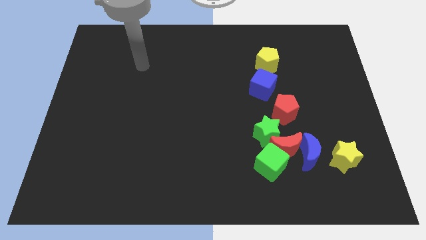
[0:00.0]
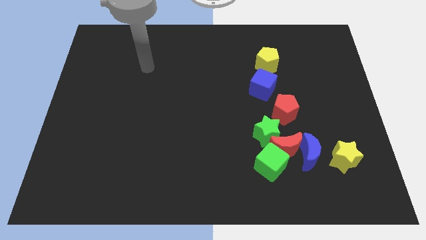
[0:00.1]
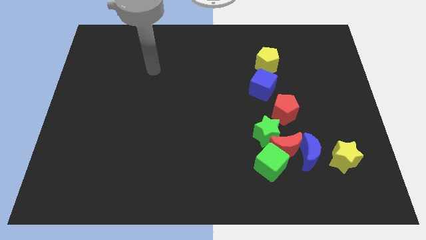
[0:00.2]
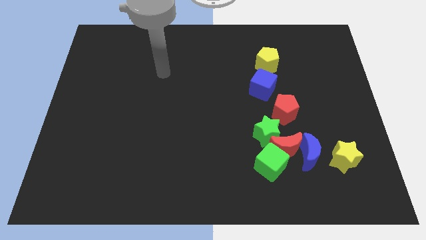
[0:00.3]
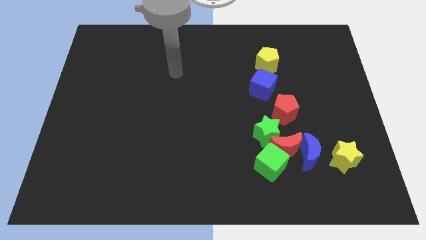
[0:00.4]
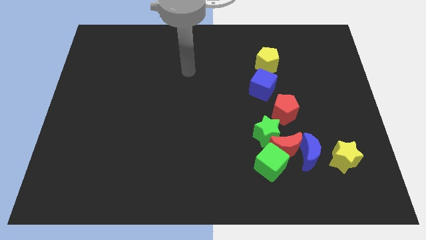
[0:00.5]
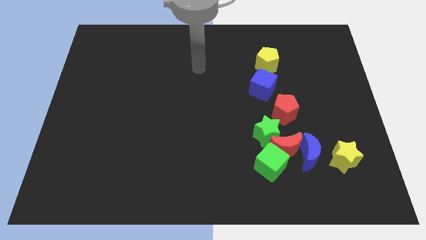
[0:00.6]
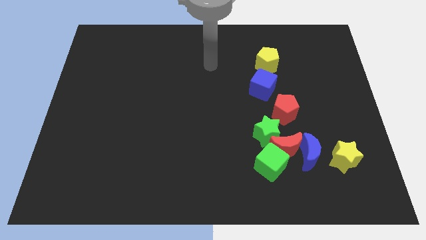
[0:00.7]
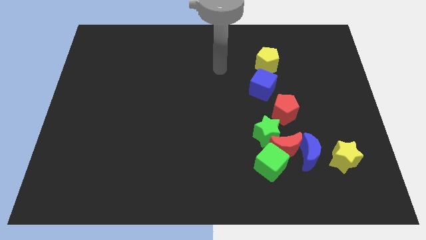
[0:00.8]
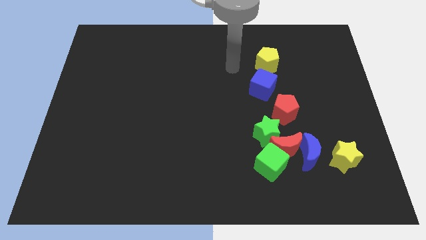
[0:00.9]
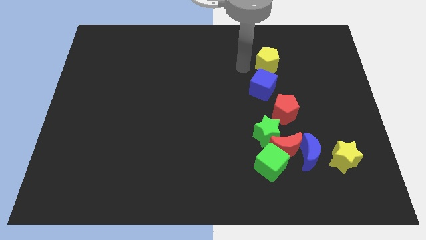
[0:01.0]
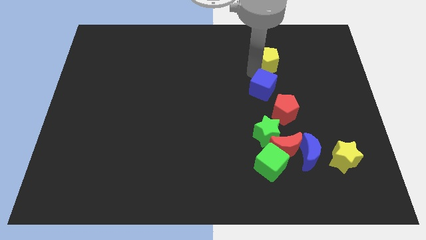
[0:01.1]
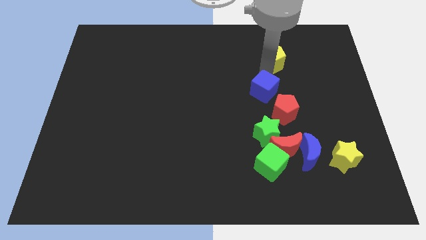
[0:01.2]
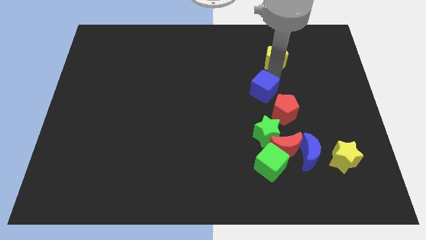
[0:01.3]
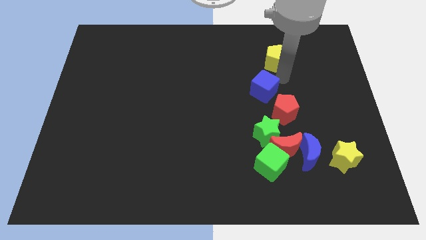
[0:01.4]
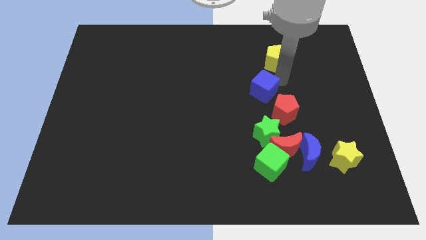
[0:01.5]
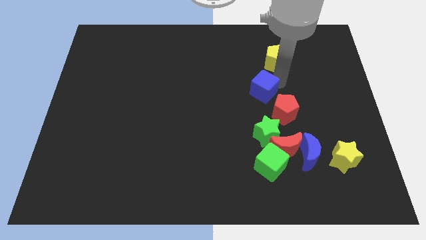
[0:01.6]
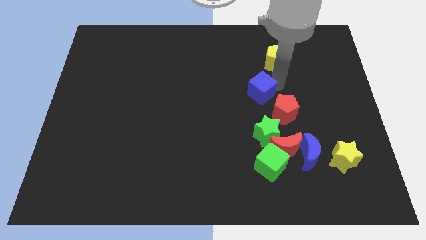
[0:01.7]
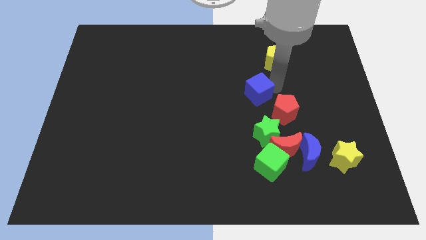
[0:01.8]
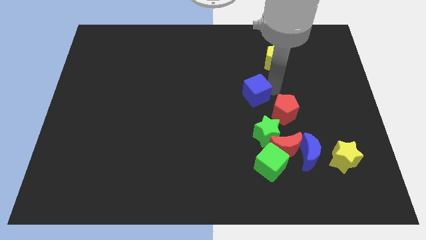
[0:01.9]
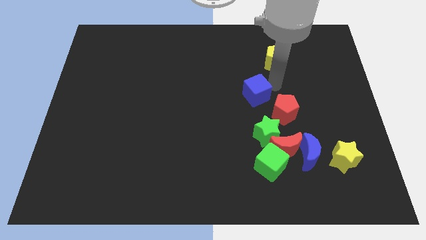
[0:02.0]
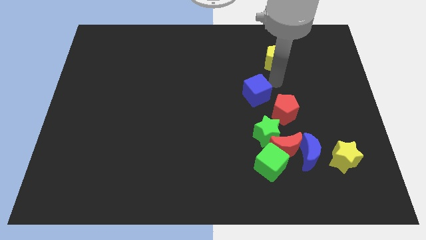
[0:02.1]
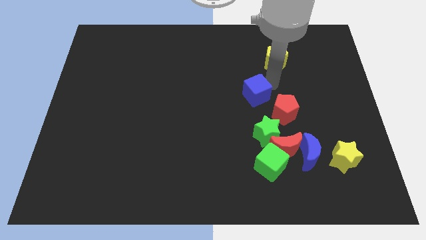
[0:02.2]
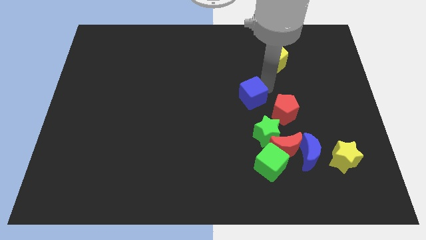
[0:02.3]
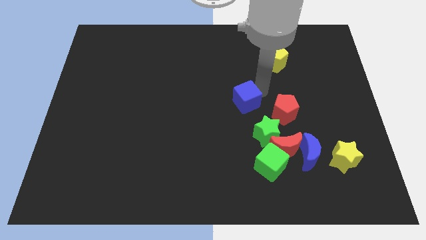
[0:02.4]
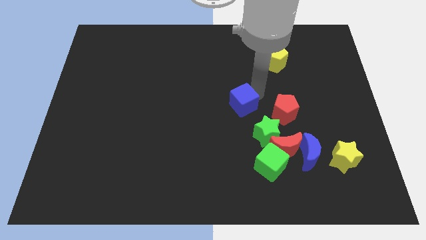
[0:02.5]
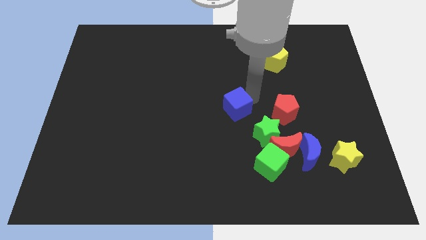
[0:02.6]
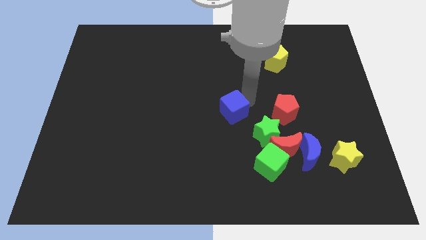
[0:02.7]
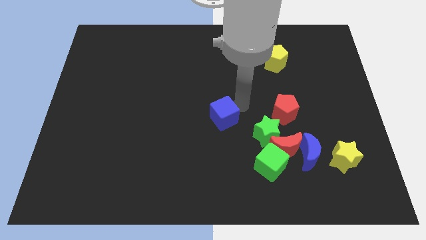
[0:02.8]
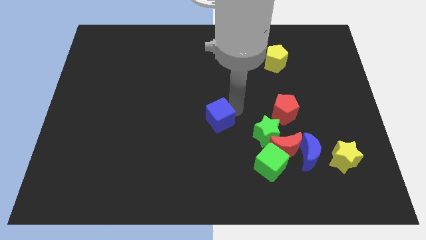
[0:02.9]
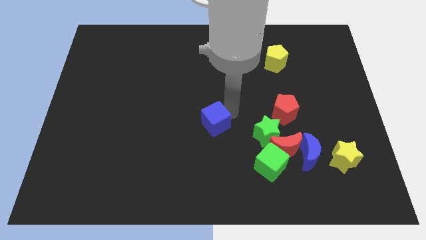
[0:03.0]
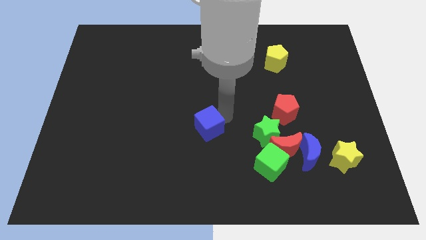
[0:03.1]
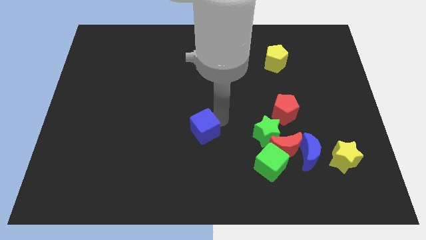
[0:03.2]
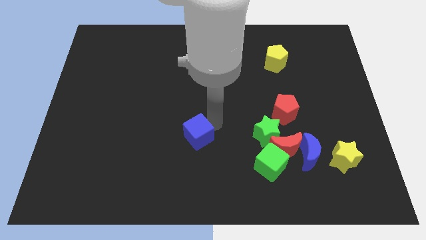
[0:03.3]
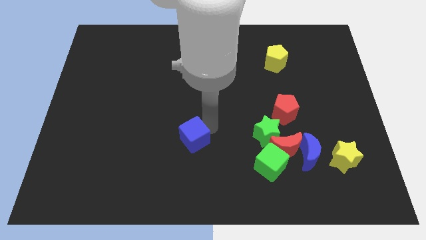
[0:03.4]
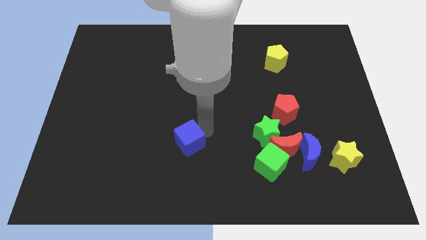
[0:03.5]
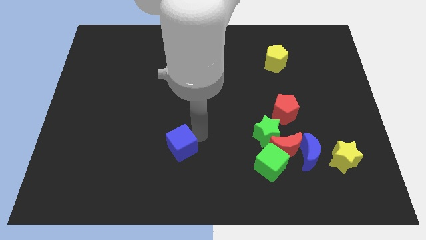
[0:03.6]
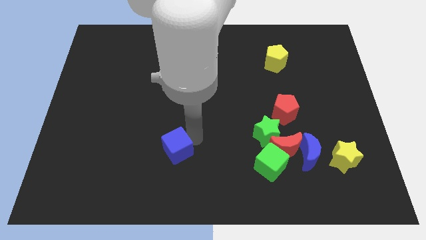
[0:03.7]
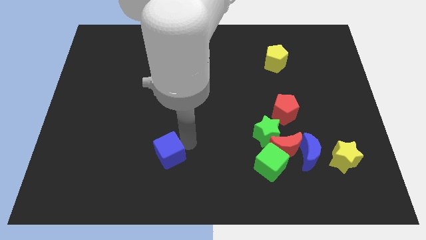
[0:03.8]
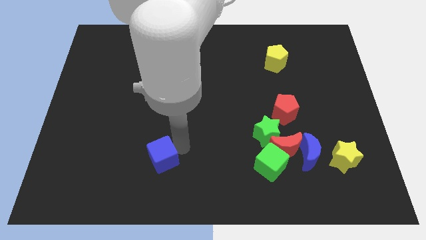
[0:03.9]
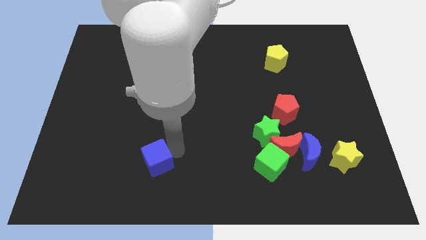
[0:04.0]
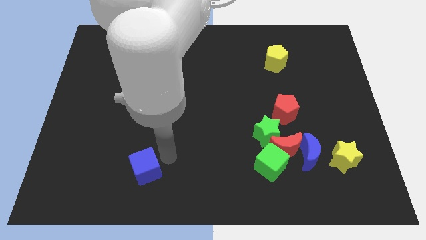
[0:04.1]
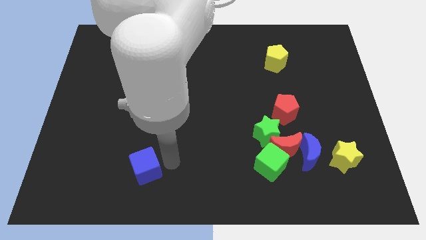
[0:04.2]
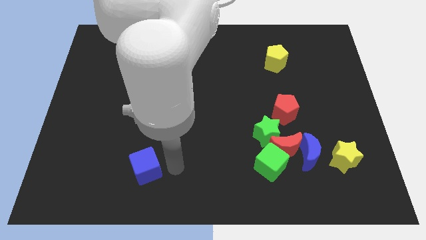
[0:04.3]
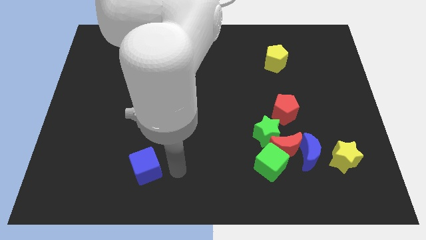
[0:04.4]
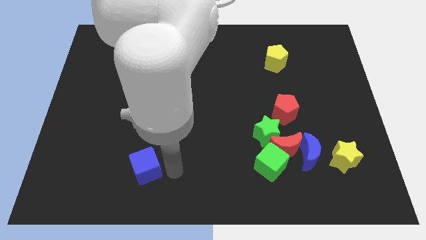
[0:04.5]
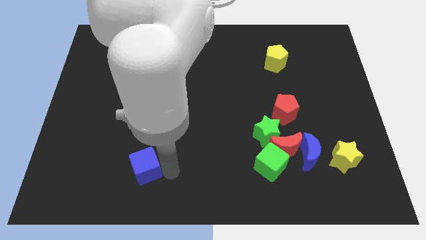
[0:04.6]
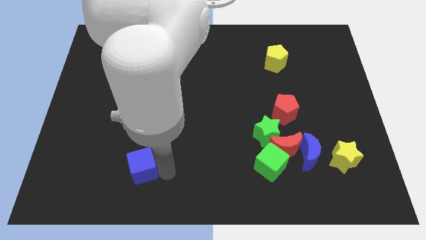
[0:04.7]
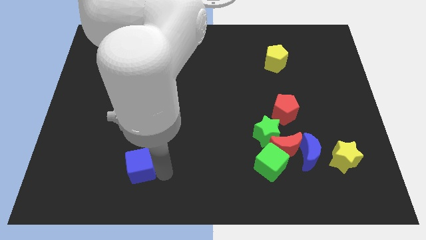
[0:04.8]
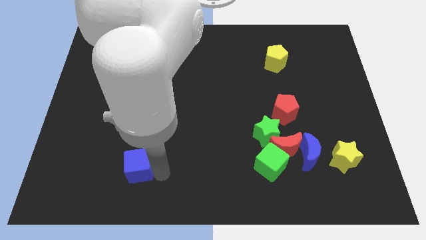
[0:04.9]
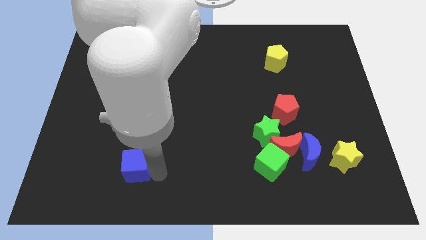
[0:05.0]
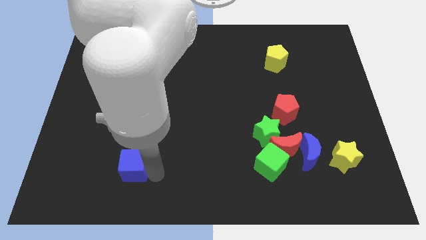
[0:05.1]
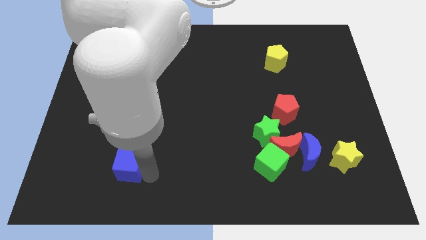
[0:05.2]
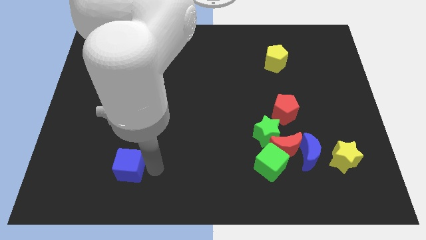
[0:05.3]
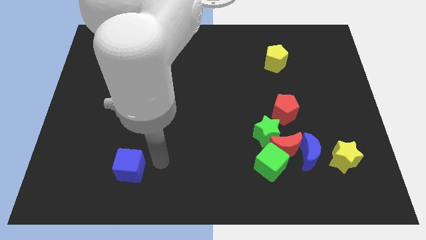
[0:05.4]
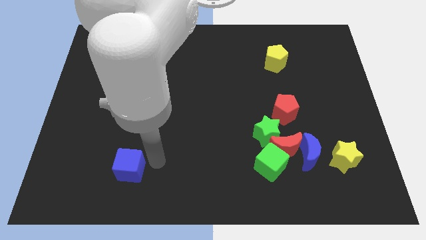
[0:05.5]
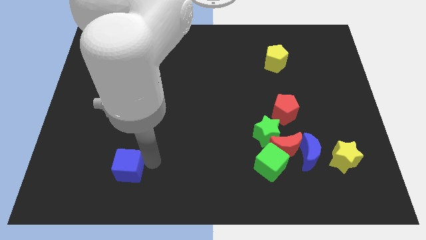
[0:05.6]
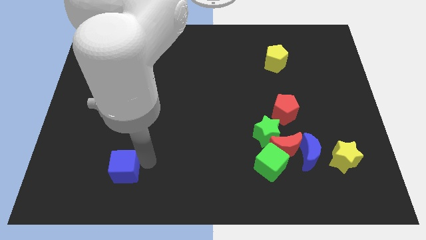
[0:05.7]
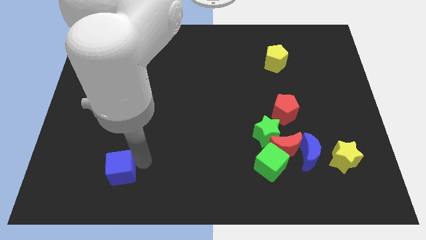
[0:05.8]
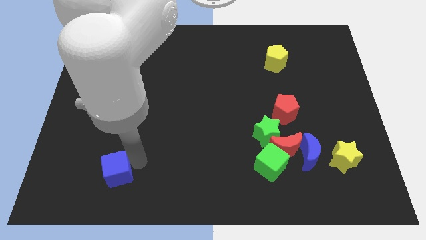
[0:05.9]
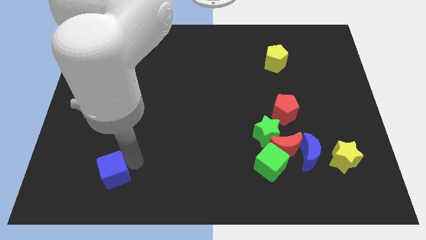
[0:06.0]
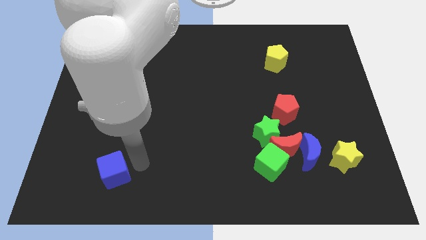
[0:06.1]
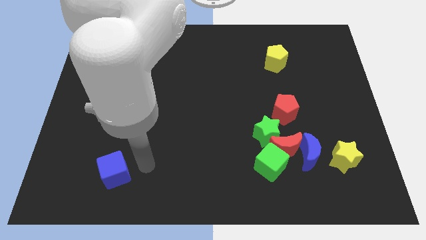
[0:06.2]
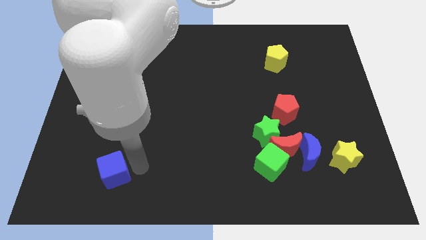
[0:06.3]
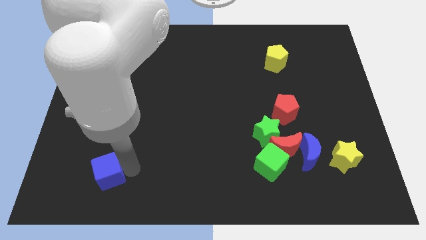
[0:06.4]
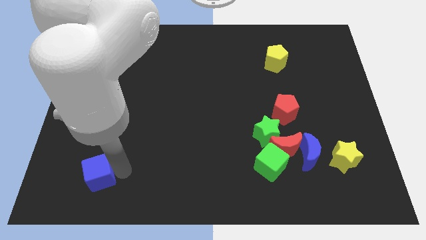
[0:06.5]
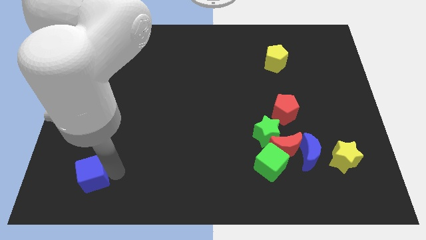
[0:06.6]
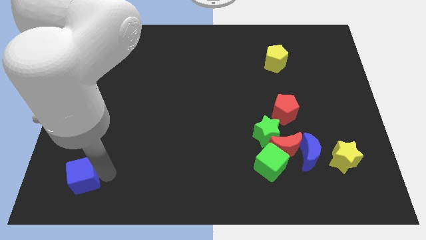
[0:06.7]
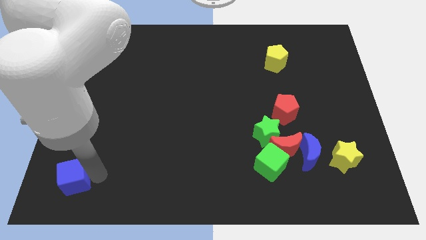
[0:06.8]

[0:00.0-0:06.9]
put the blue cube to the bottom left of the board
